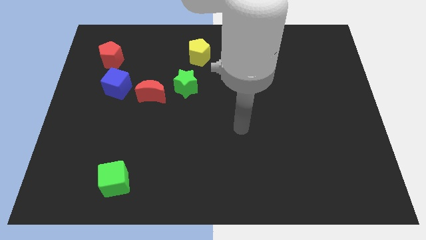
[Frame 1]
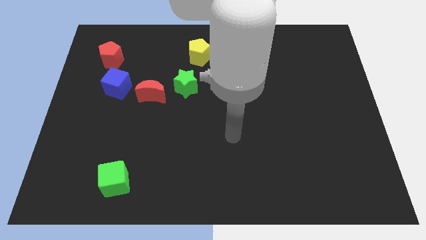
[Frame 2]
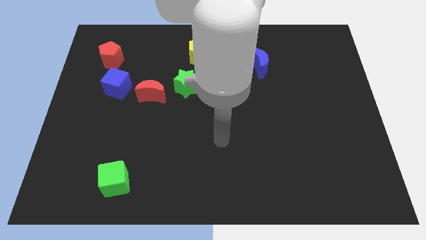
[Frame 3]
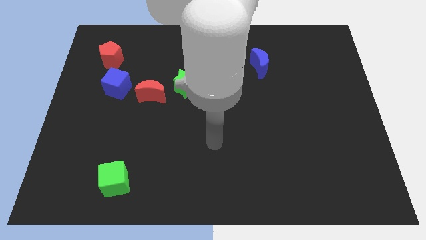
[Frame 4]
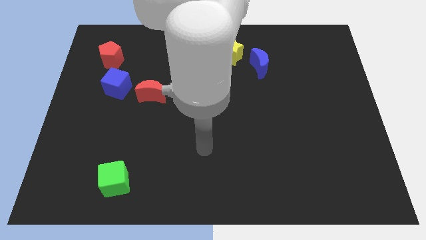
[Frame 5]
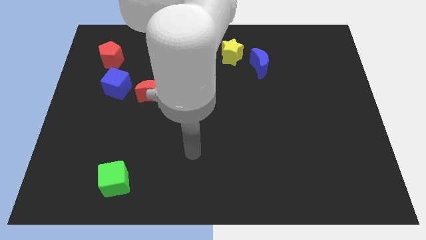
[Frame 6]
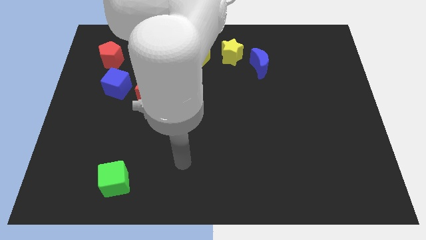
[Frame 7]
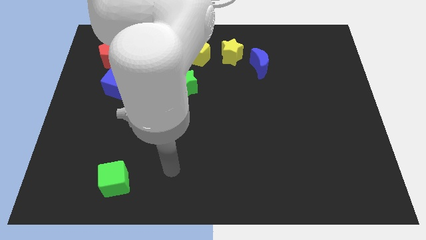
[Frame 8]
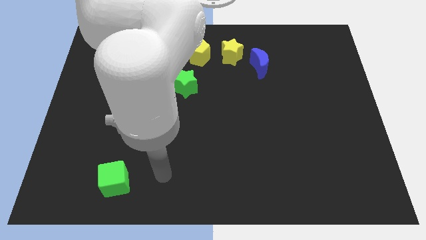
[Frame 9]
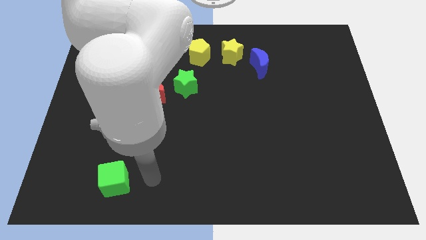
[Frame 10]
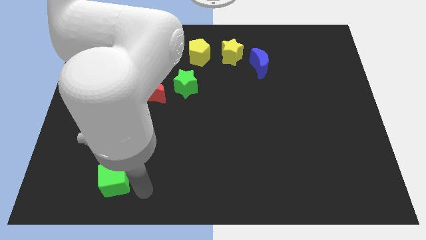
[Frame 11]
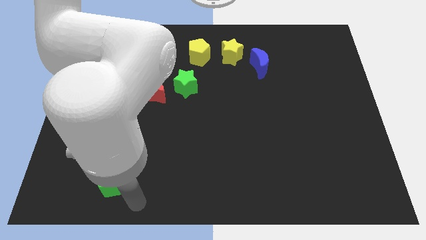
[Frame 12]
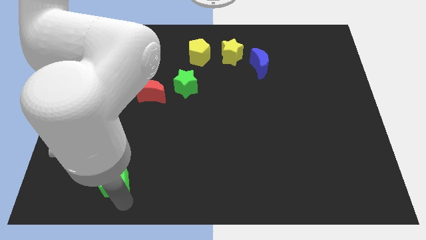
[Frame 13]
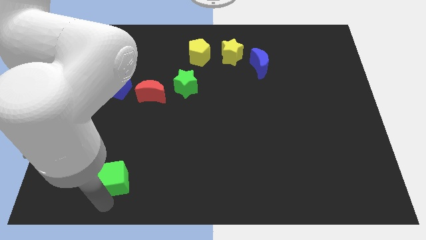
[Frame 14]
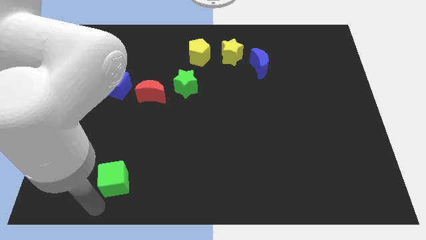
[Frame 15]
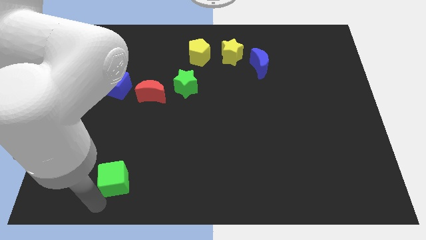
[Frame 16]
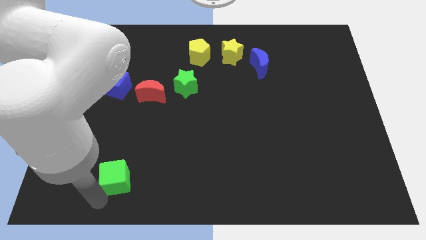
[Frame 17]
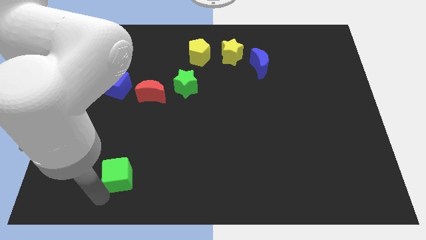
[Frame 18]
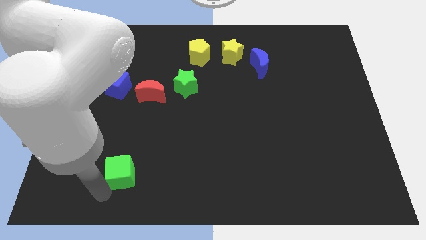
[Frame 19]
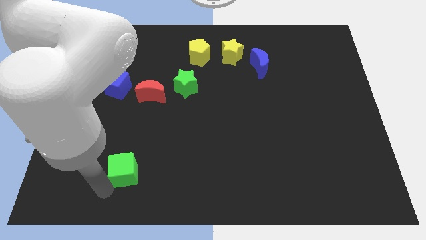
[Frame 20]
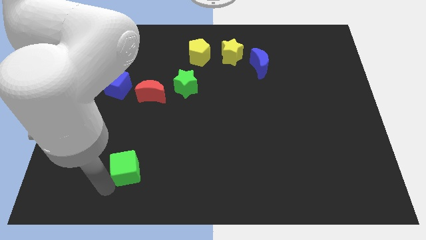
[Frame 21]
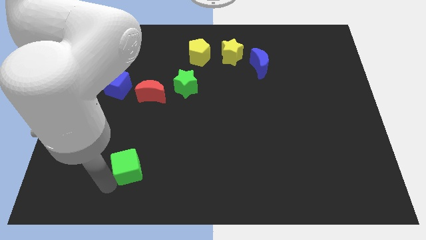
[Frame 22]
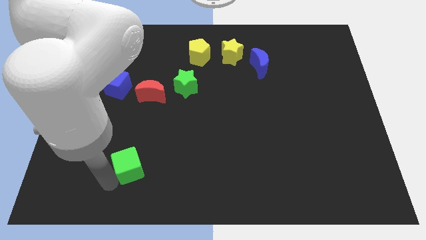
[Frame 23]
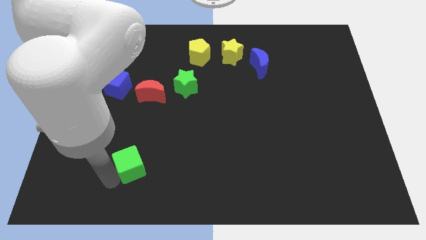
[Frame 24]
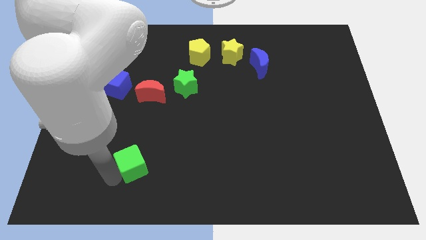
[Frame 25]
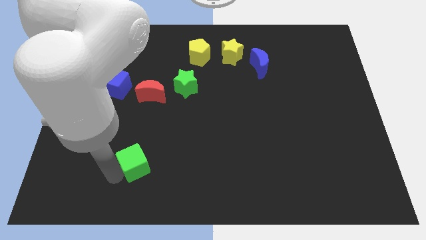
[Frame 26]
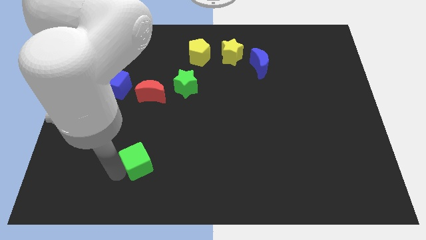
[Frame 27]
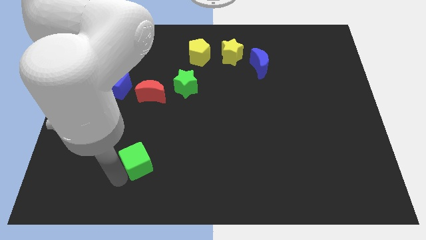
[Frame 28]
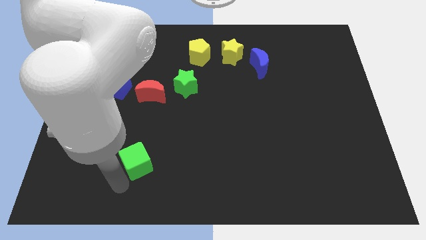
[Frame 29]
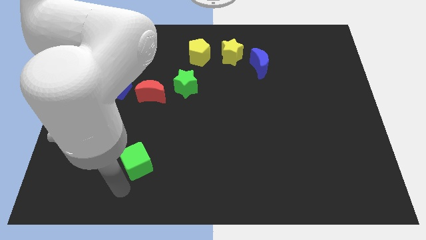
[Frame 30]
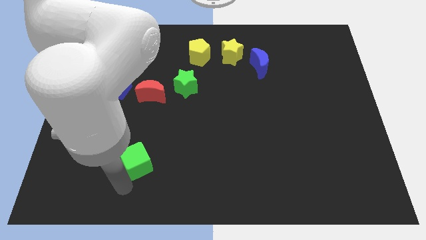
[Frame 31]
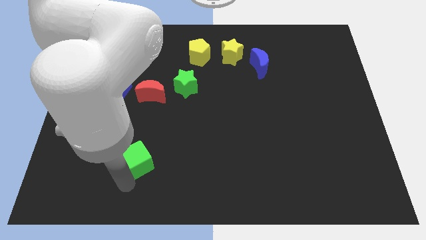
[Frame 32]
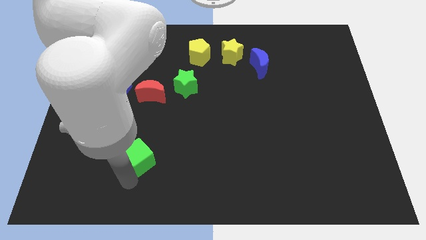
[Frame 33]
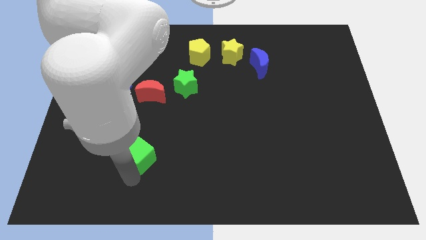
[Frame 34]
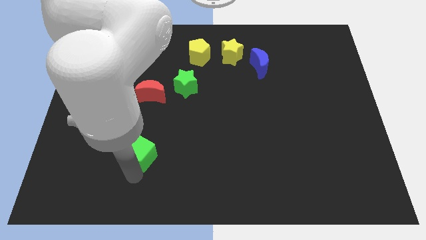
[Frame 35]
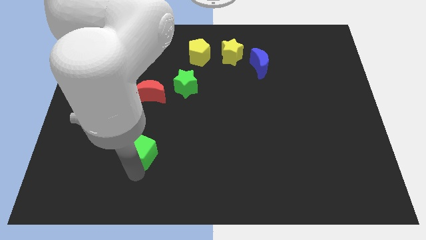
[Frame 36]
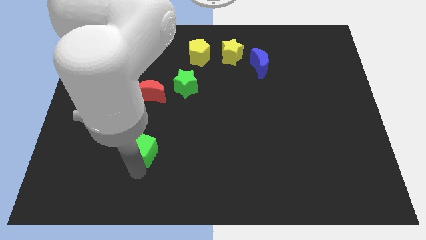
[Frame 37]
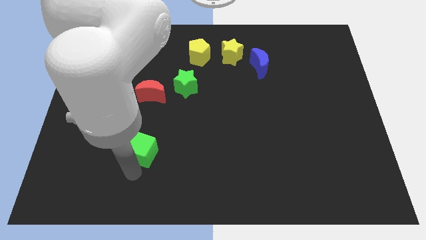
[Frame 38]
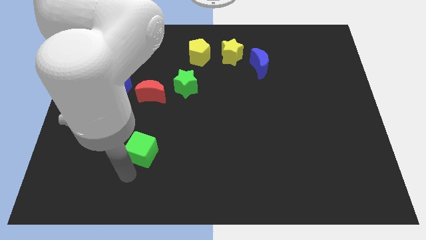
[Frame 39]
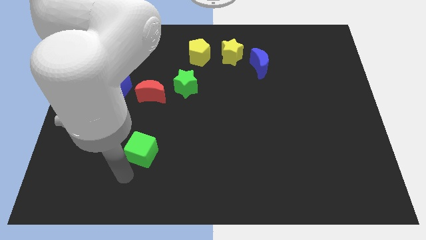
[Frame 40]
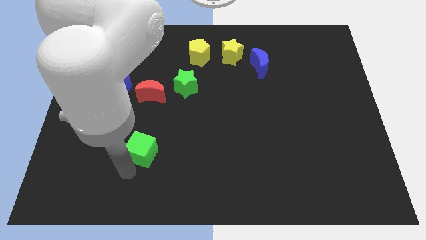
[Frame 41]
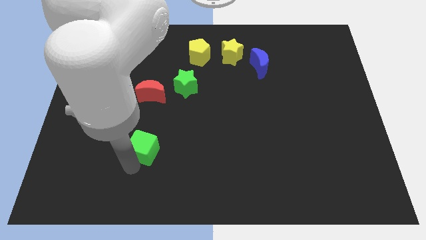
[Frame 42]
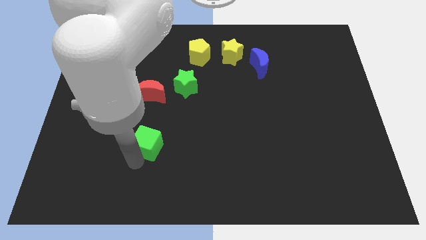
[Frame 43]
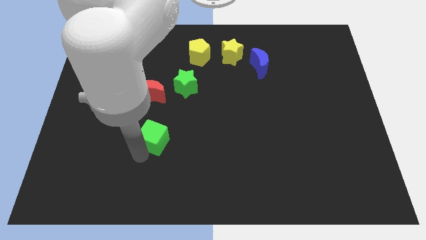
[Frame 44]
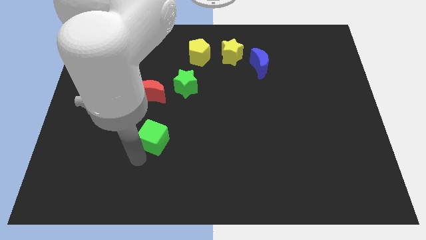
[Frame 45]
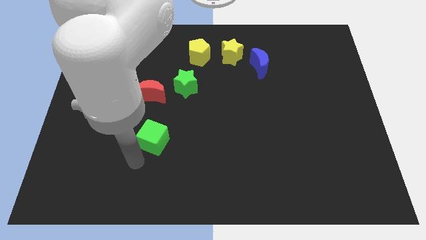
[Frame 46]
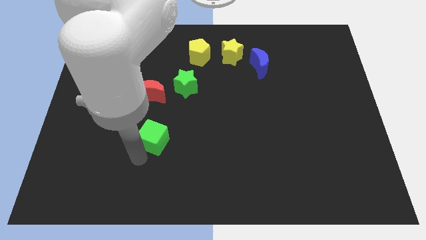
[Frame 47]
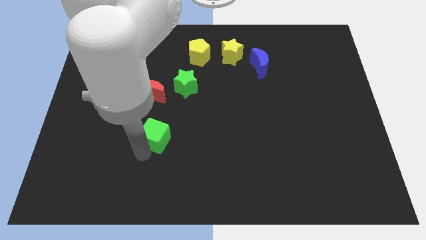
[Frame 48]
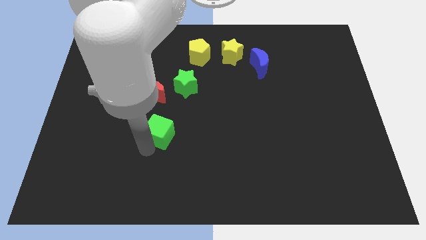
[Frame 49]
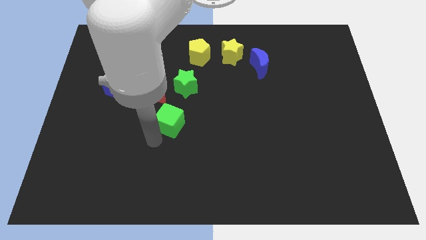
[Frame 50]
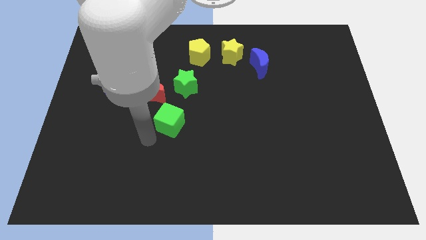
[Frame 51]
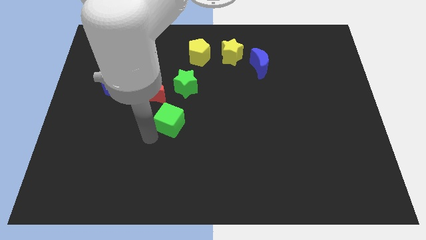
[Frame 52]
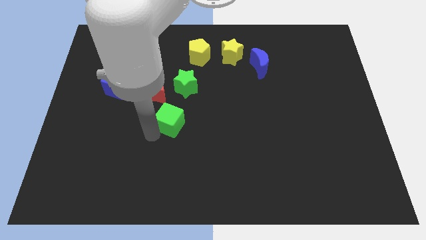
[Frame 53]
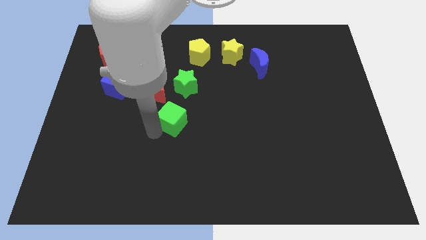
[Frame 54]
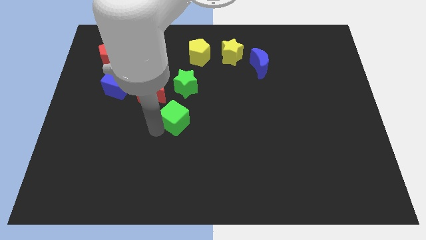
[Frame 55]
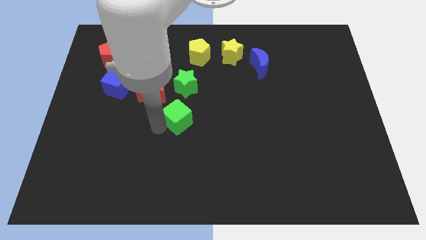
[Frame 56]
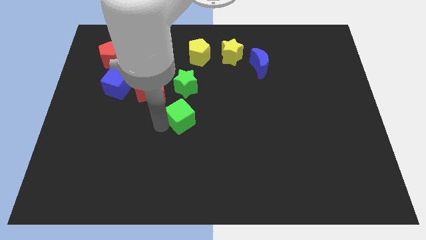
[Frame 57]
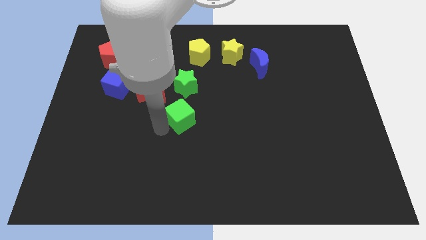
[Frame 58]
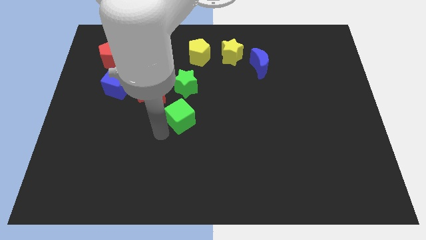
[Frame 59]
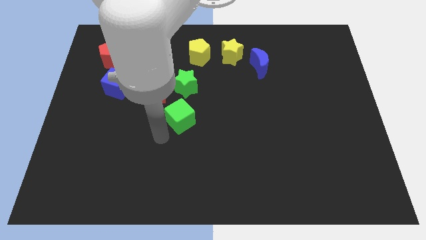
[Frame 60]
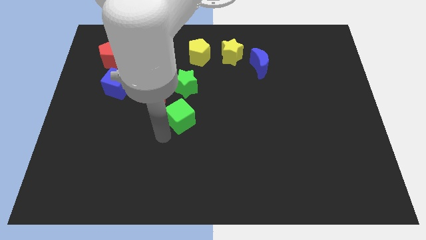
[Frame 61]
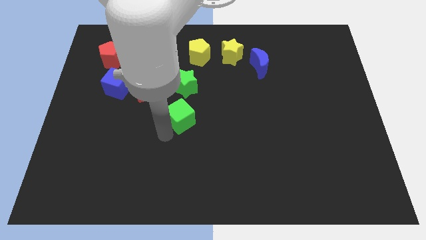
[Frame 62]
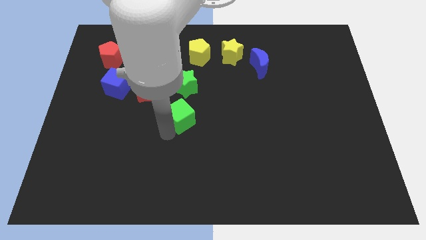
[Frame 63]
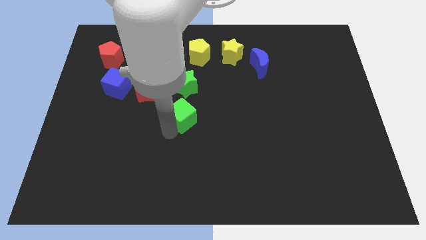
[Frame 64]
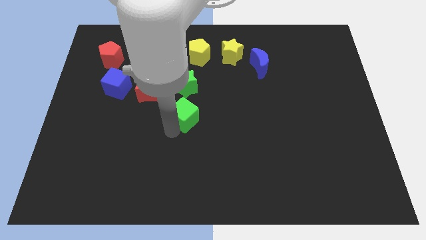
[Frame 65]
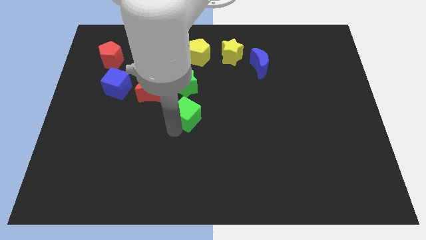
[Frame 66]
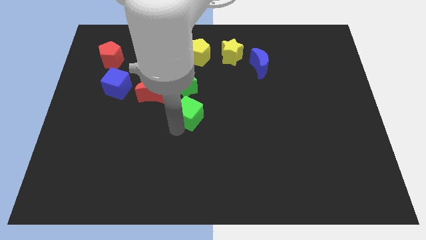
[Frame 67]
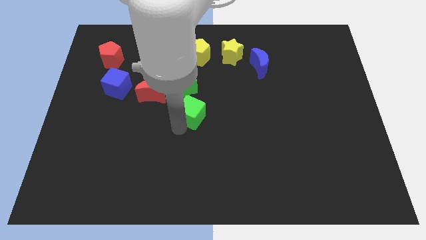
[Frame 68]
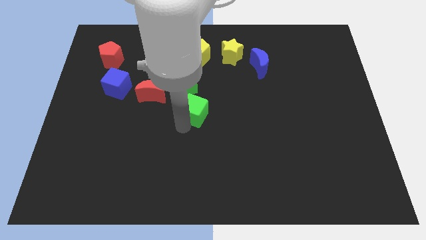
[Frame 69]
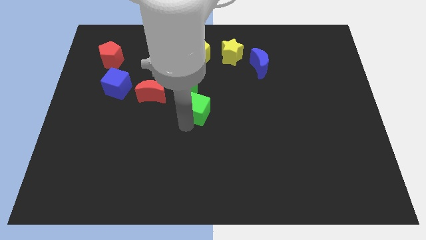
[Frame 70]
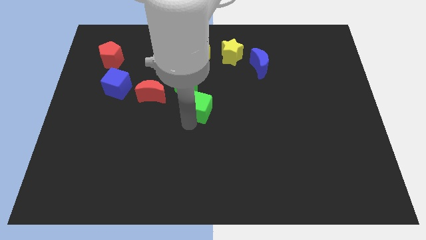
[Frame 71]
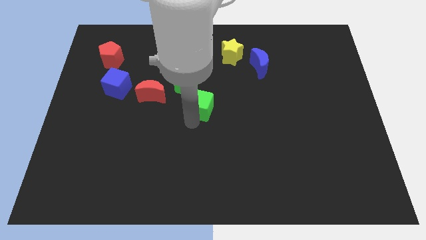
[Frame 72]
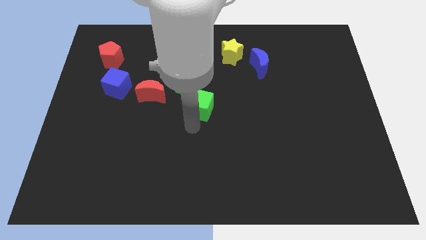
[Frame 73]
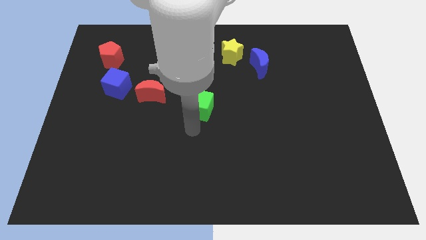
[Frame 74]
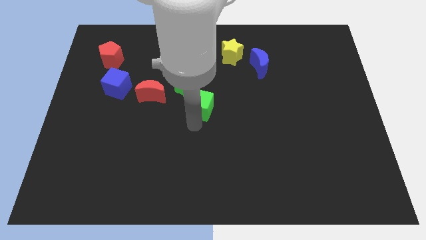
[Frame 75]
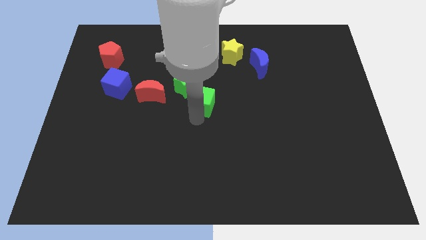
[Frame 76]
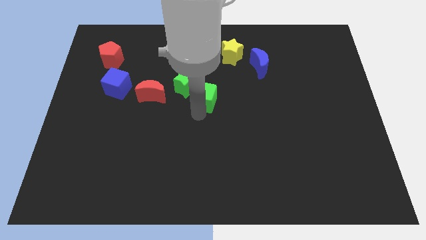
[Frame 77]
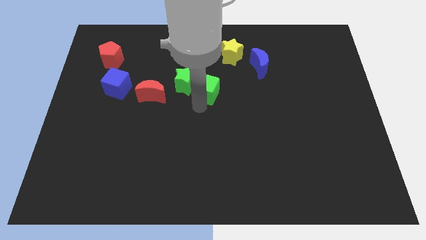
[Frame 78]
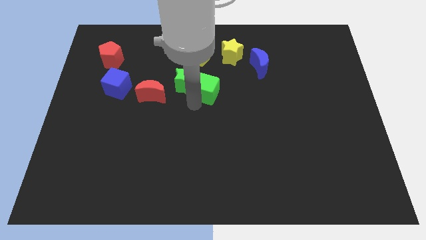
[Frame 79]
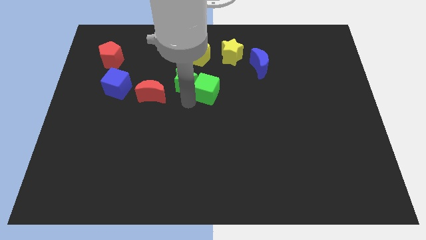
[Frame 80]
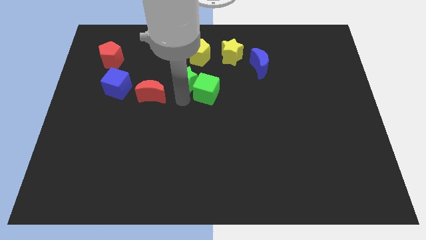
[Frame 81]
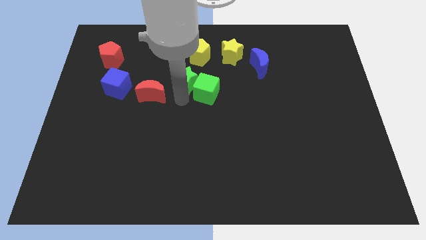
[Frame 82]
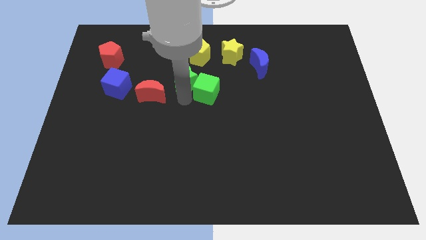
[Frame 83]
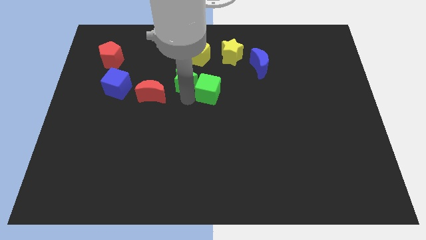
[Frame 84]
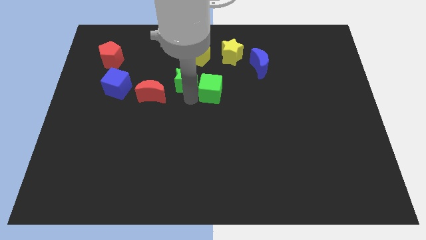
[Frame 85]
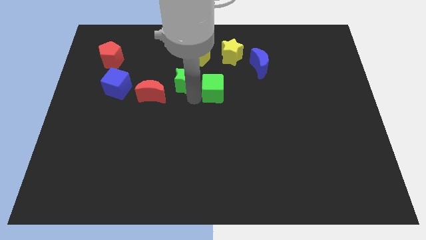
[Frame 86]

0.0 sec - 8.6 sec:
put the green cube to the bottom side of the yellow star
